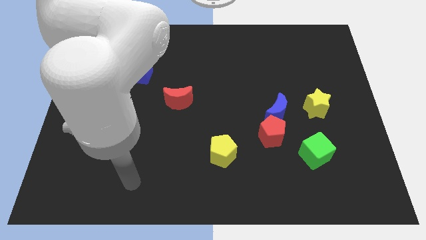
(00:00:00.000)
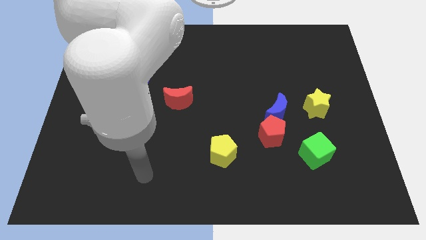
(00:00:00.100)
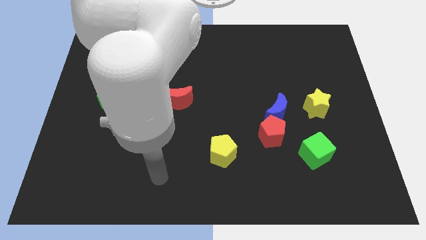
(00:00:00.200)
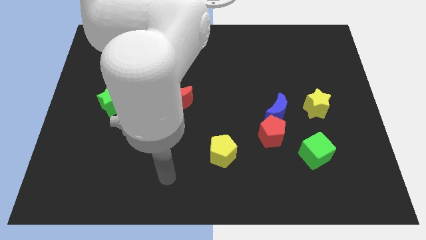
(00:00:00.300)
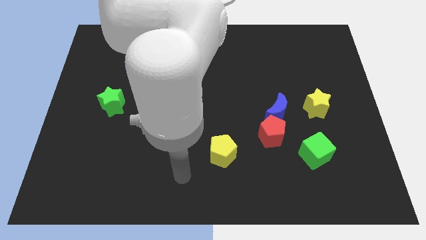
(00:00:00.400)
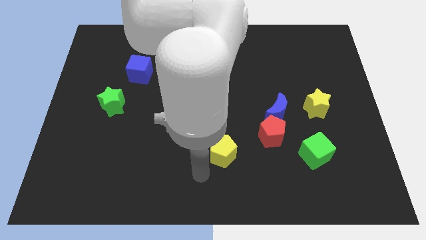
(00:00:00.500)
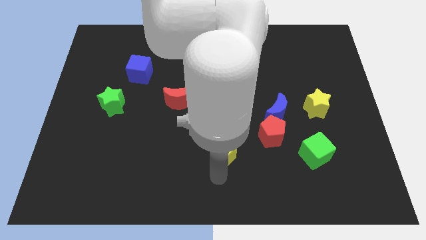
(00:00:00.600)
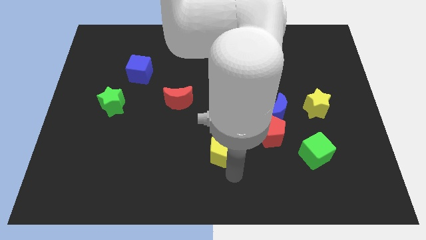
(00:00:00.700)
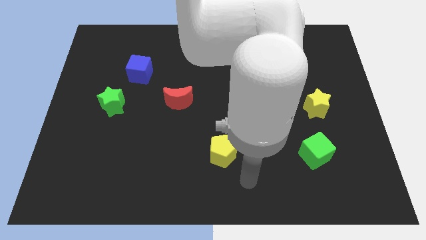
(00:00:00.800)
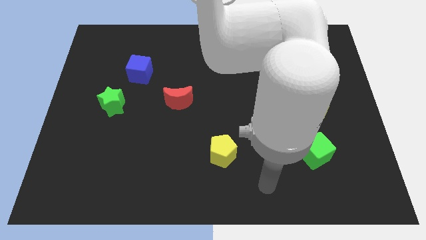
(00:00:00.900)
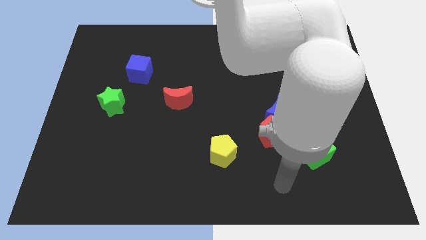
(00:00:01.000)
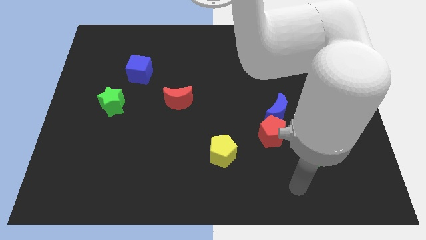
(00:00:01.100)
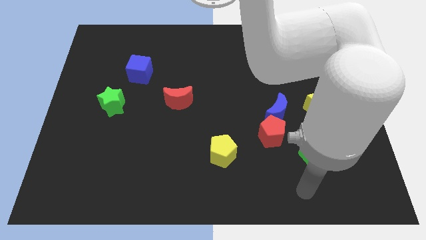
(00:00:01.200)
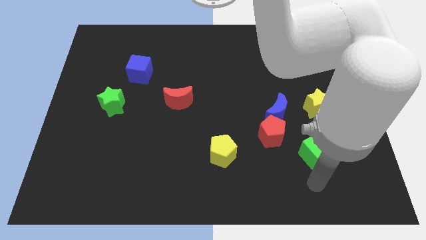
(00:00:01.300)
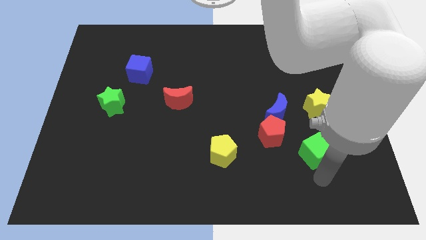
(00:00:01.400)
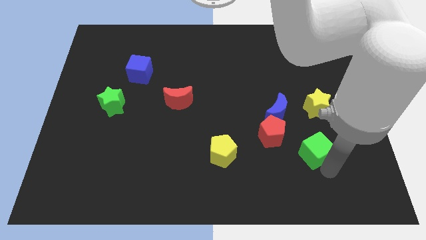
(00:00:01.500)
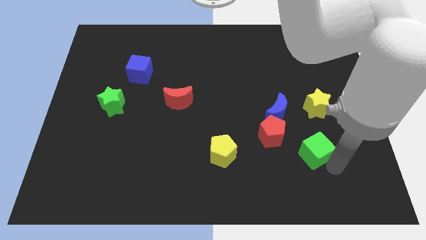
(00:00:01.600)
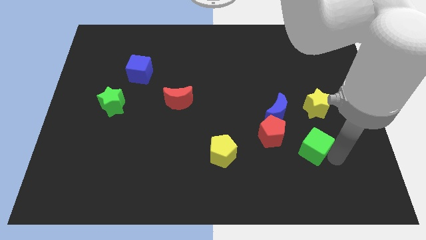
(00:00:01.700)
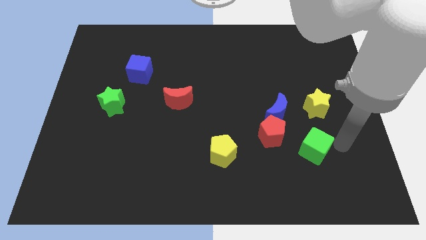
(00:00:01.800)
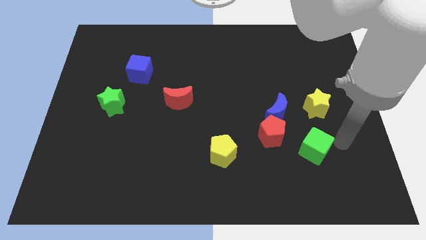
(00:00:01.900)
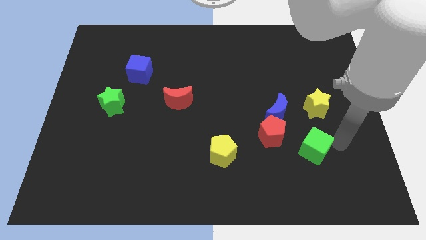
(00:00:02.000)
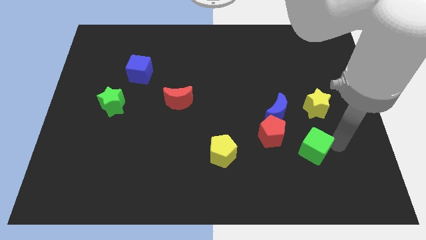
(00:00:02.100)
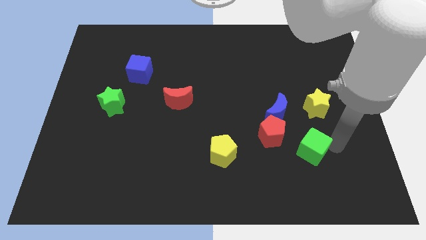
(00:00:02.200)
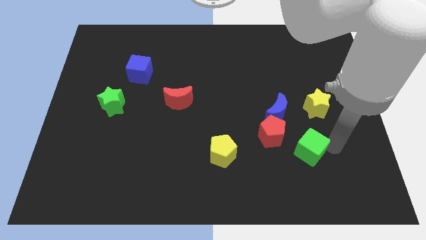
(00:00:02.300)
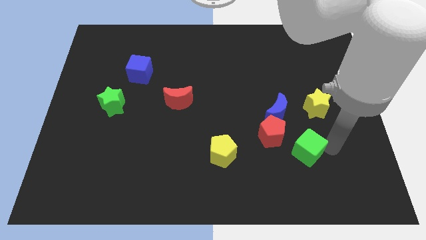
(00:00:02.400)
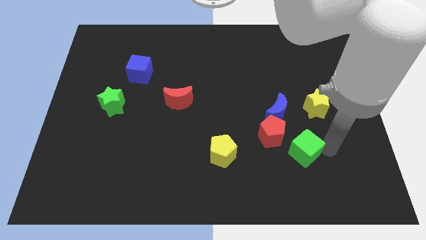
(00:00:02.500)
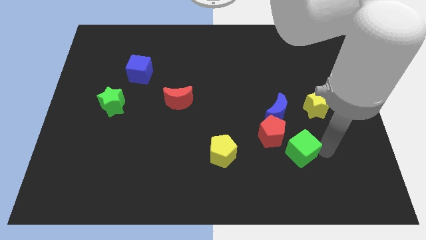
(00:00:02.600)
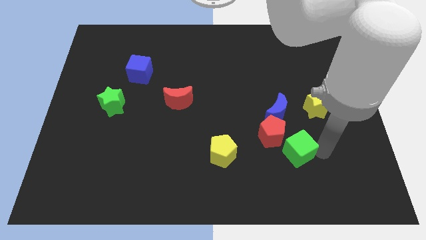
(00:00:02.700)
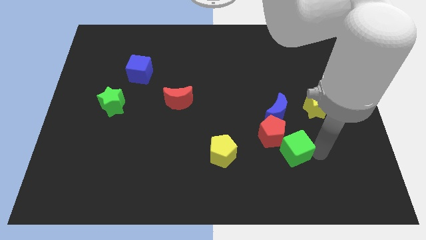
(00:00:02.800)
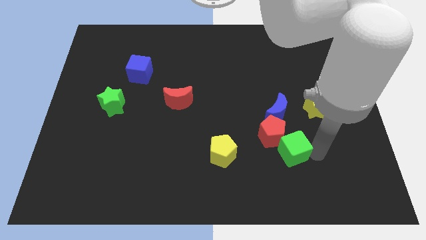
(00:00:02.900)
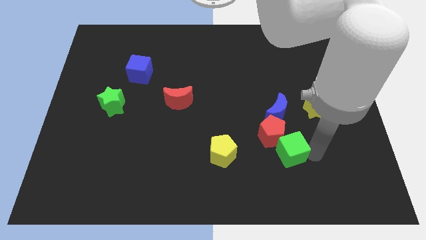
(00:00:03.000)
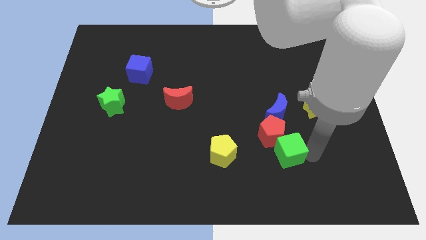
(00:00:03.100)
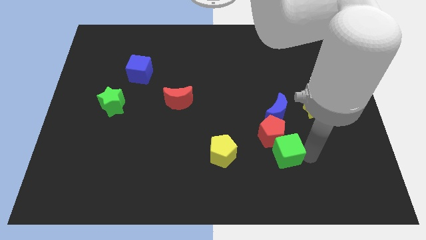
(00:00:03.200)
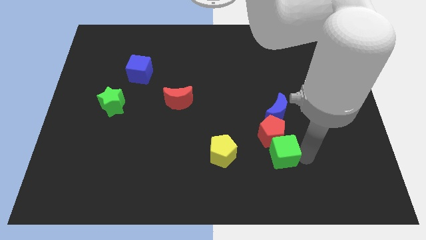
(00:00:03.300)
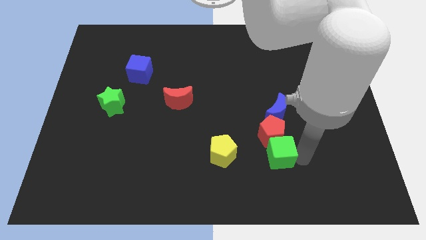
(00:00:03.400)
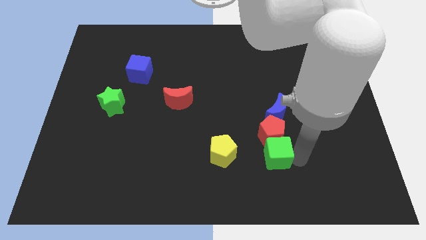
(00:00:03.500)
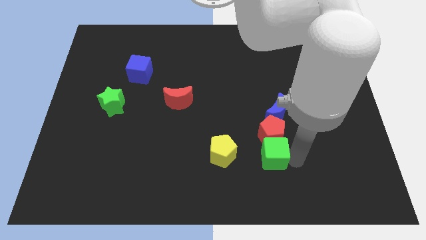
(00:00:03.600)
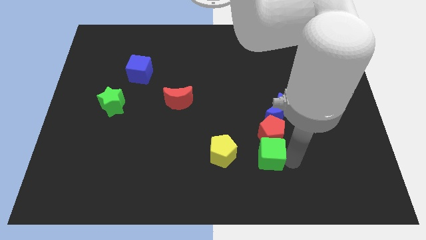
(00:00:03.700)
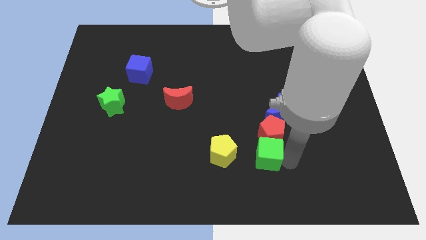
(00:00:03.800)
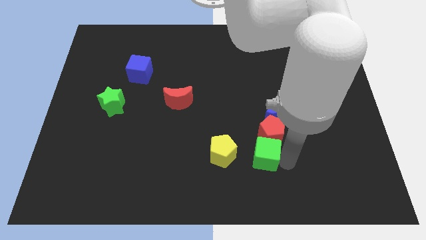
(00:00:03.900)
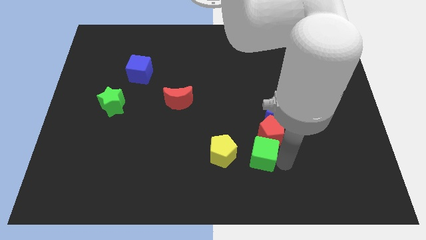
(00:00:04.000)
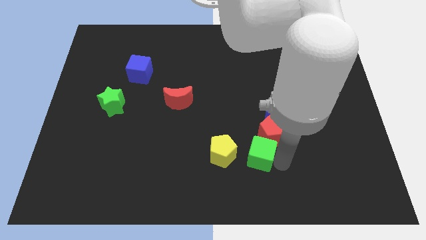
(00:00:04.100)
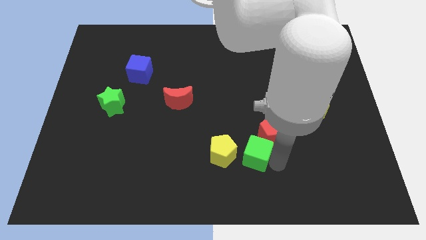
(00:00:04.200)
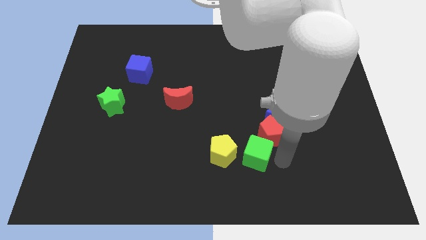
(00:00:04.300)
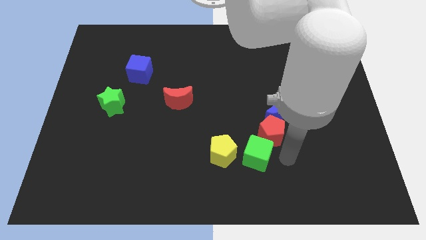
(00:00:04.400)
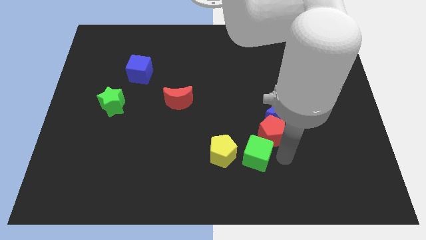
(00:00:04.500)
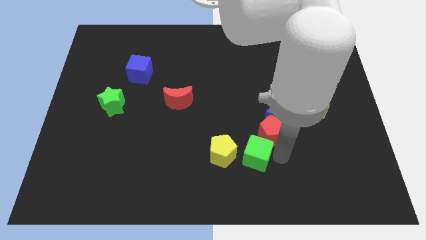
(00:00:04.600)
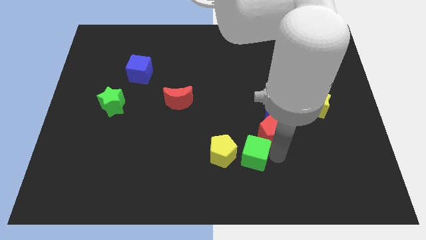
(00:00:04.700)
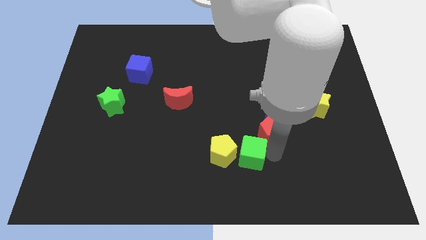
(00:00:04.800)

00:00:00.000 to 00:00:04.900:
slide the green cube close to the yellow pentagon

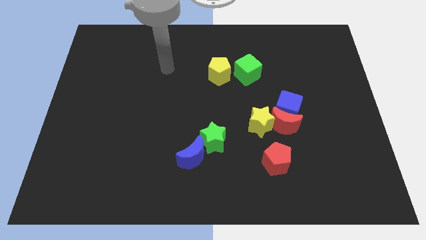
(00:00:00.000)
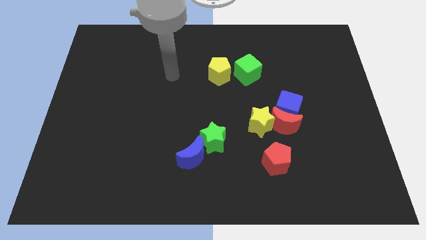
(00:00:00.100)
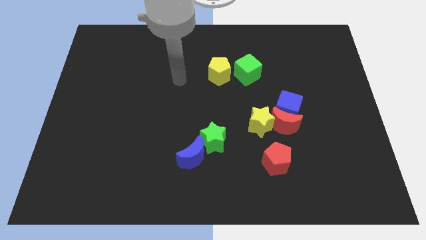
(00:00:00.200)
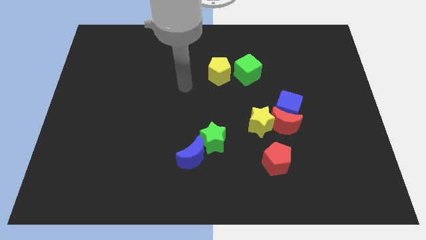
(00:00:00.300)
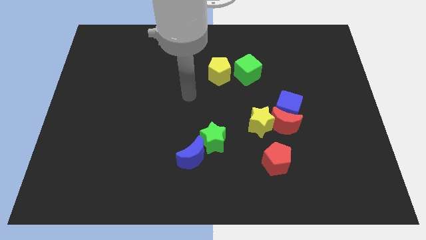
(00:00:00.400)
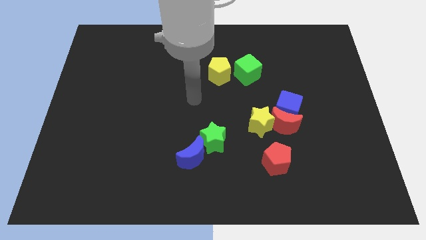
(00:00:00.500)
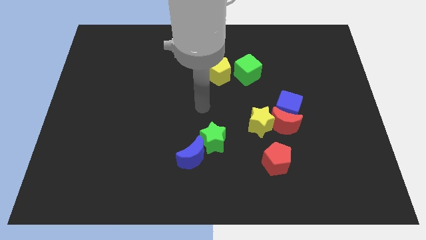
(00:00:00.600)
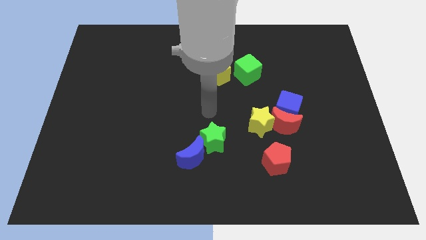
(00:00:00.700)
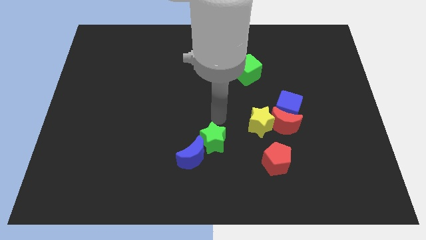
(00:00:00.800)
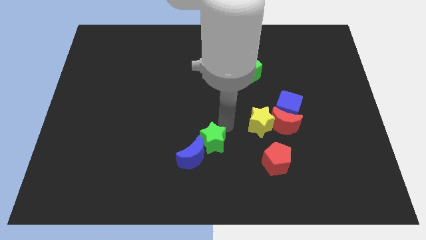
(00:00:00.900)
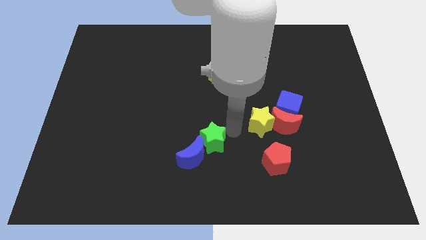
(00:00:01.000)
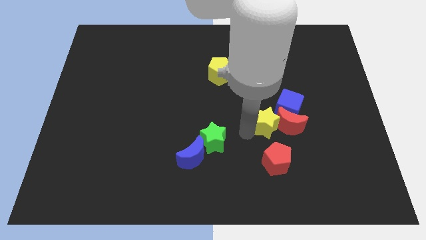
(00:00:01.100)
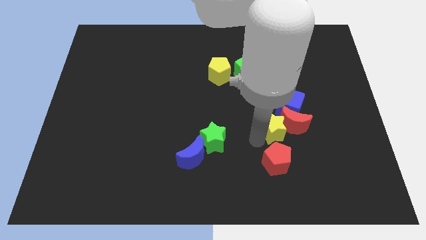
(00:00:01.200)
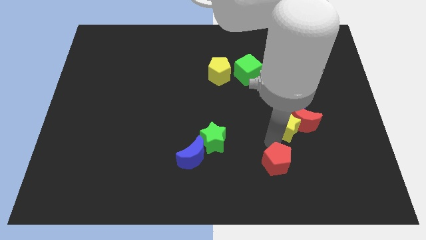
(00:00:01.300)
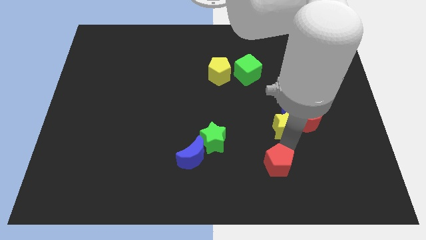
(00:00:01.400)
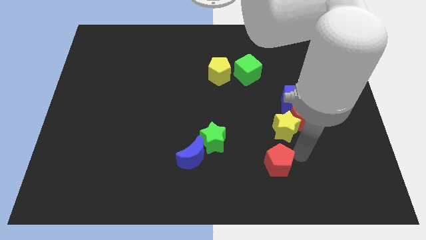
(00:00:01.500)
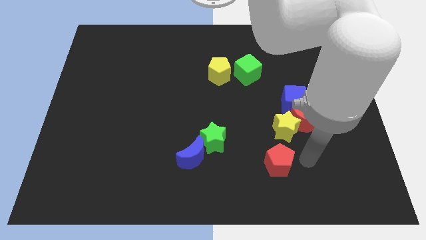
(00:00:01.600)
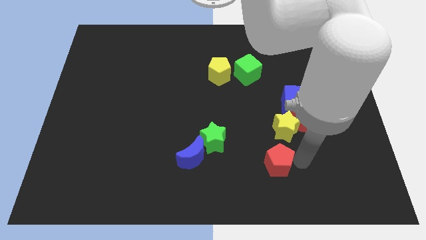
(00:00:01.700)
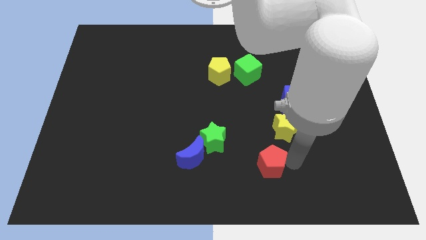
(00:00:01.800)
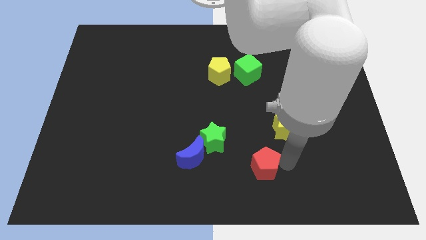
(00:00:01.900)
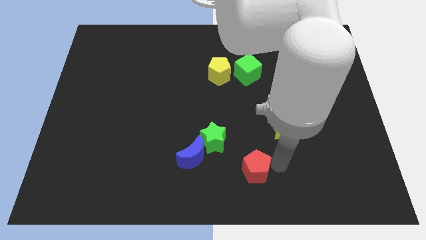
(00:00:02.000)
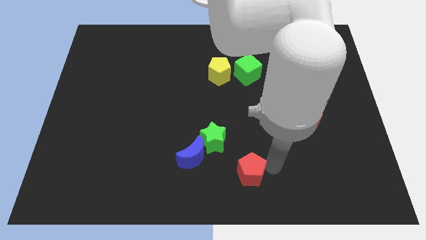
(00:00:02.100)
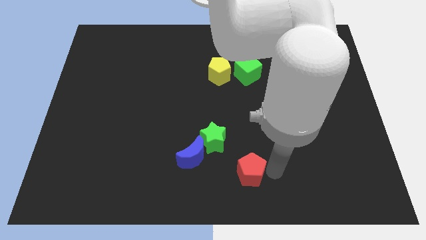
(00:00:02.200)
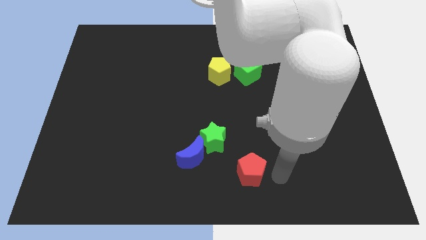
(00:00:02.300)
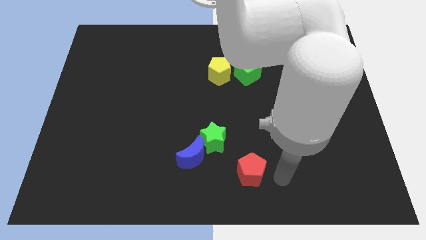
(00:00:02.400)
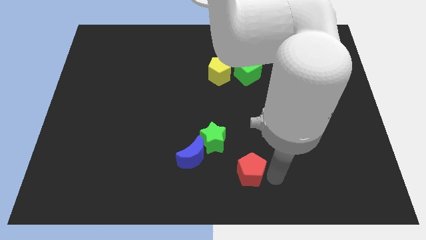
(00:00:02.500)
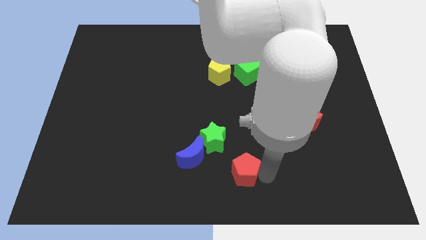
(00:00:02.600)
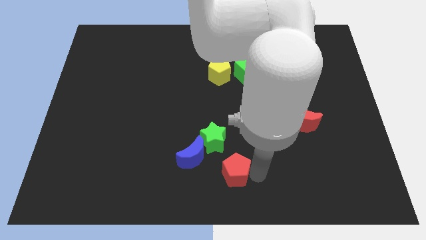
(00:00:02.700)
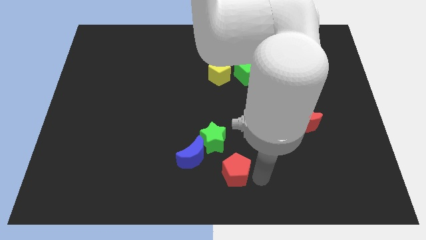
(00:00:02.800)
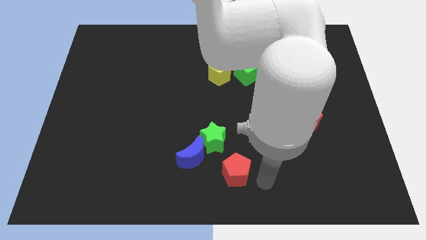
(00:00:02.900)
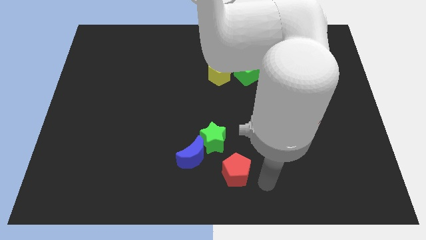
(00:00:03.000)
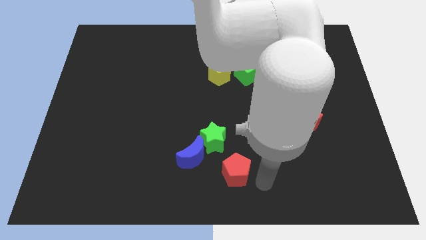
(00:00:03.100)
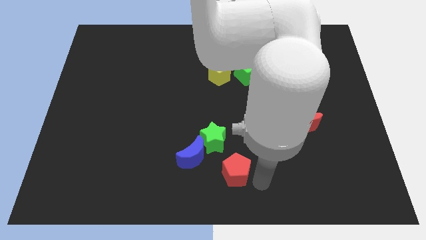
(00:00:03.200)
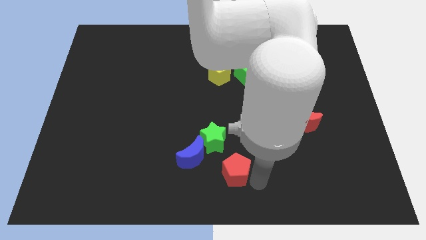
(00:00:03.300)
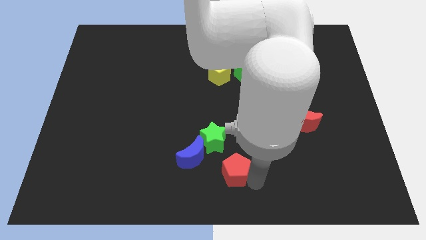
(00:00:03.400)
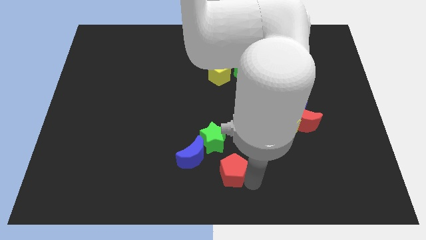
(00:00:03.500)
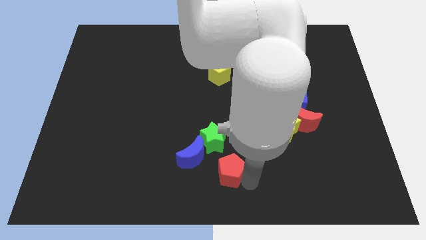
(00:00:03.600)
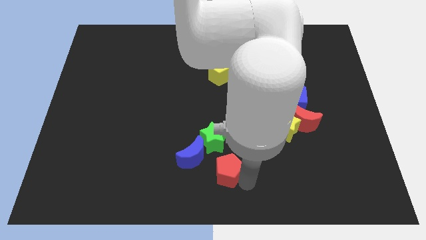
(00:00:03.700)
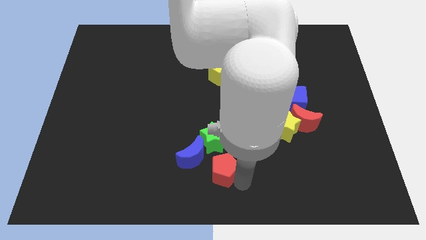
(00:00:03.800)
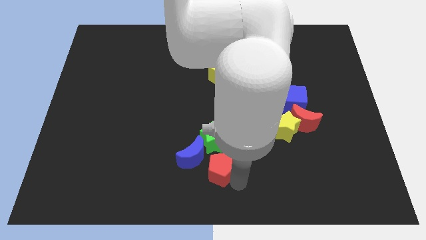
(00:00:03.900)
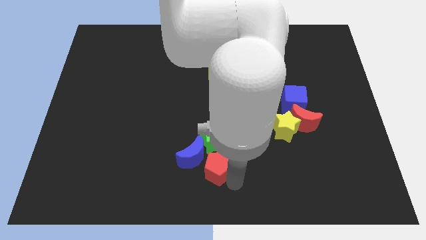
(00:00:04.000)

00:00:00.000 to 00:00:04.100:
move the red pentagon next to the blue moon
